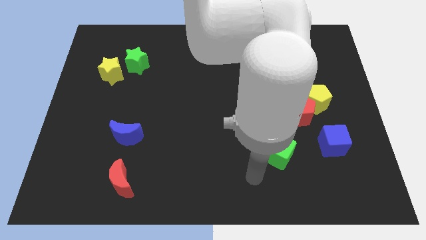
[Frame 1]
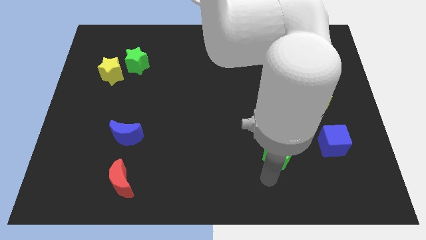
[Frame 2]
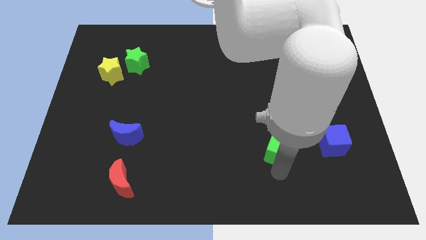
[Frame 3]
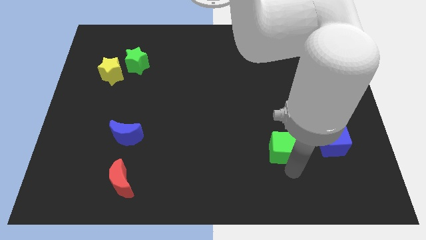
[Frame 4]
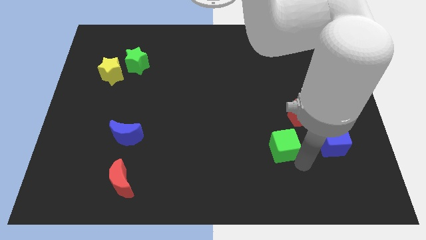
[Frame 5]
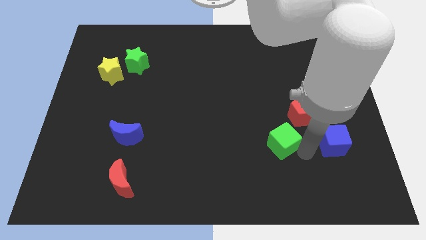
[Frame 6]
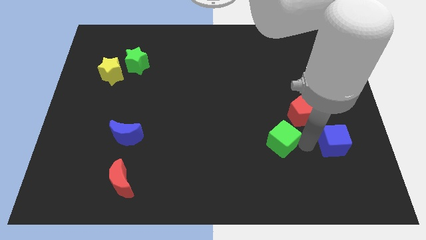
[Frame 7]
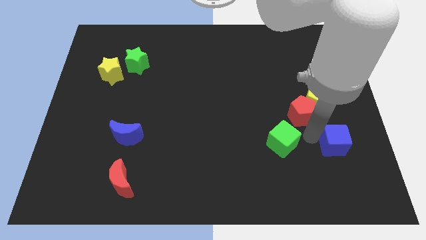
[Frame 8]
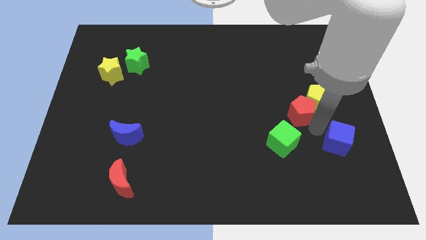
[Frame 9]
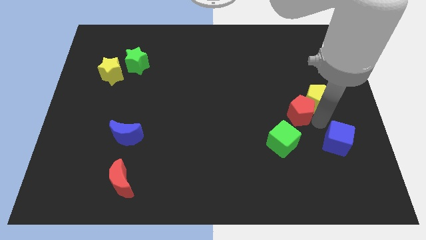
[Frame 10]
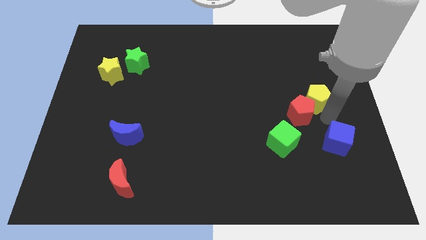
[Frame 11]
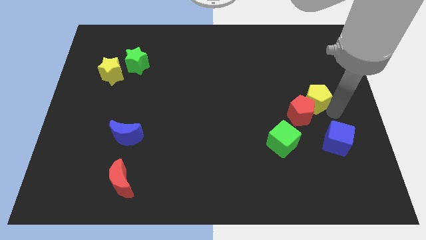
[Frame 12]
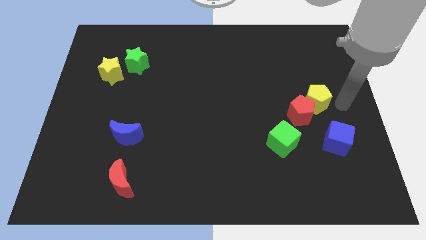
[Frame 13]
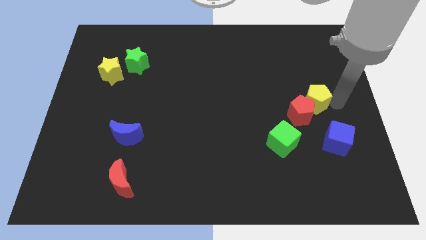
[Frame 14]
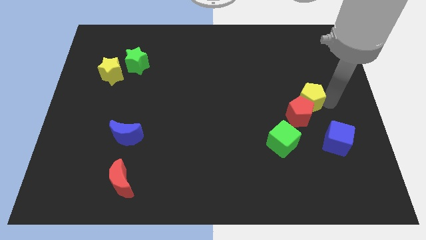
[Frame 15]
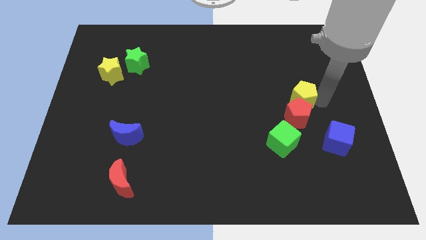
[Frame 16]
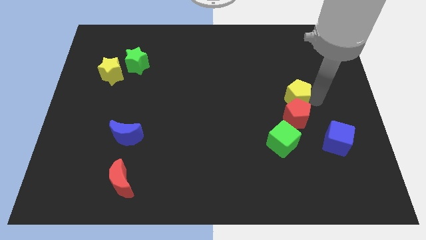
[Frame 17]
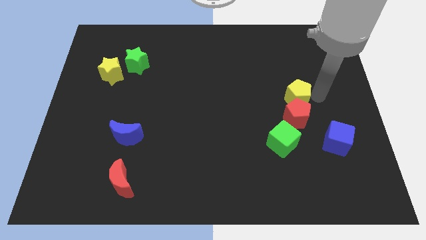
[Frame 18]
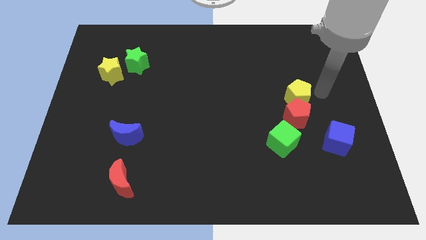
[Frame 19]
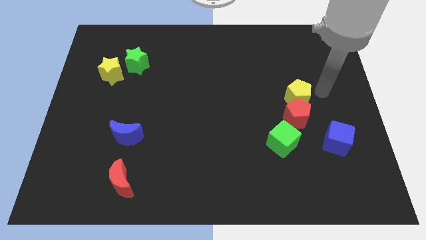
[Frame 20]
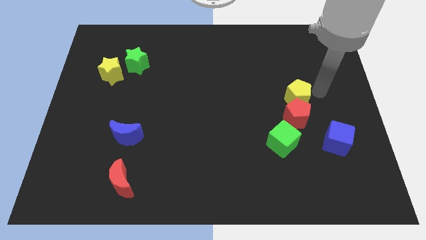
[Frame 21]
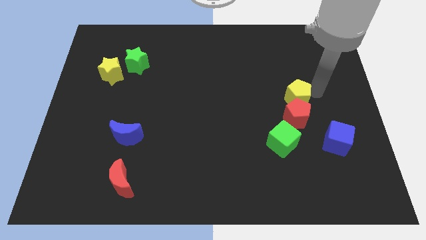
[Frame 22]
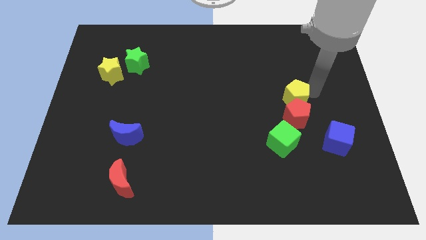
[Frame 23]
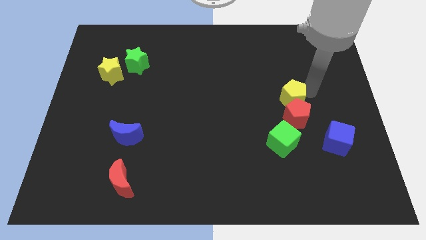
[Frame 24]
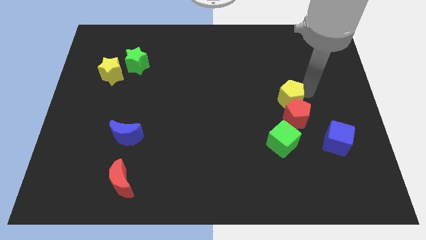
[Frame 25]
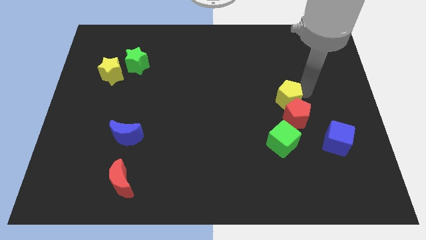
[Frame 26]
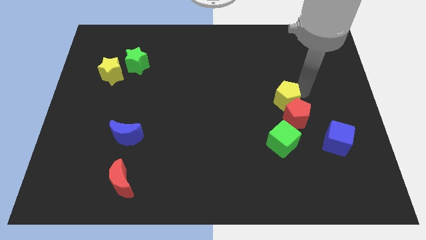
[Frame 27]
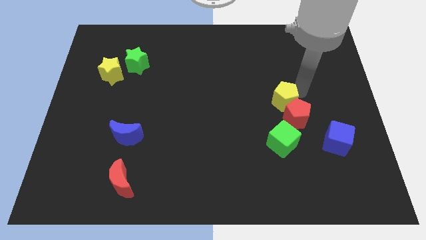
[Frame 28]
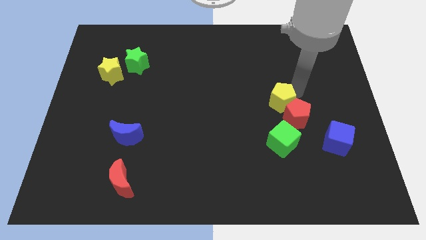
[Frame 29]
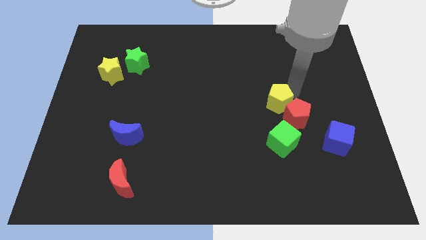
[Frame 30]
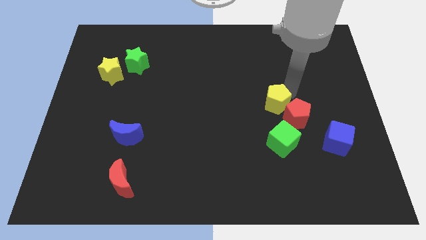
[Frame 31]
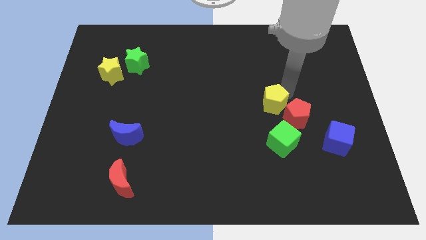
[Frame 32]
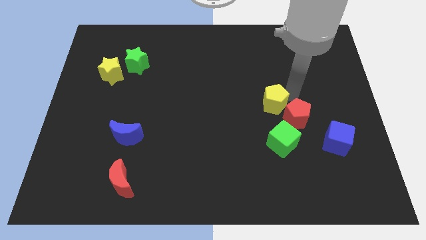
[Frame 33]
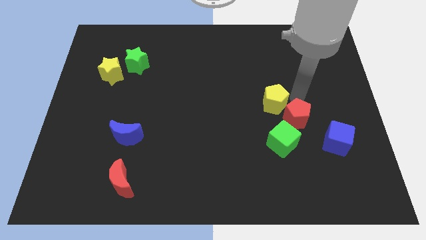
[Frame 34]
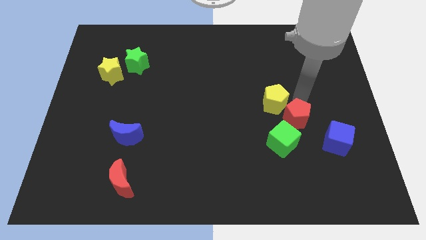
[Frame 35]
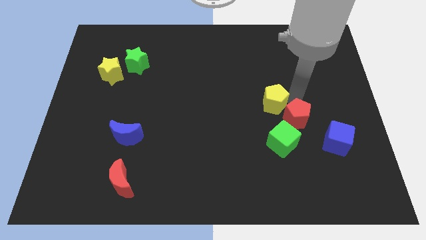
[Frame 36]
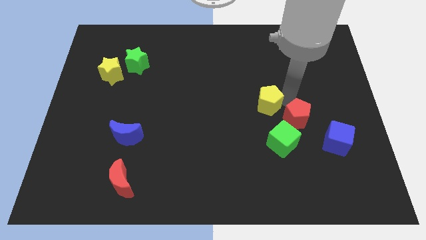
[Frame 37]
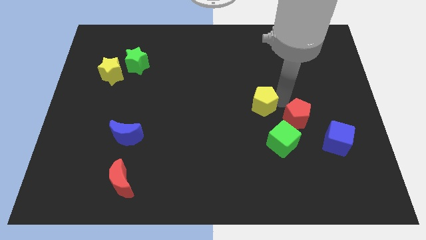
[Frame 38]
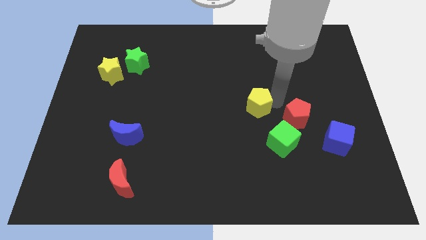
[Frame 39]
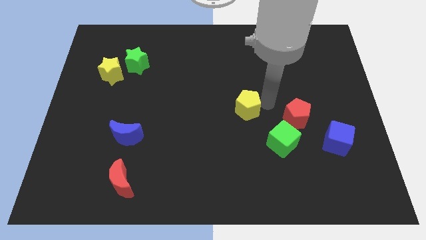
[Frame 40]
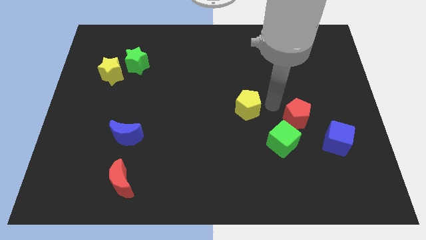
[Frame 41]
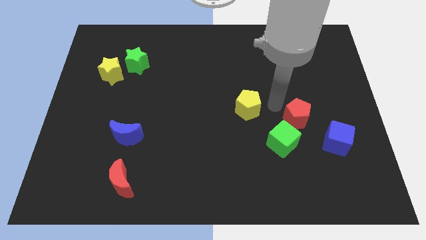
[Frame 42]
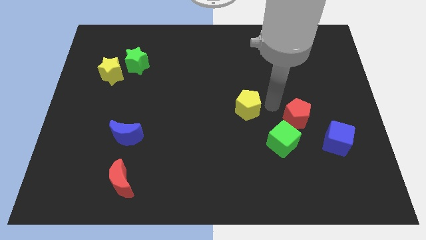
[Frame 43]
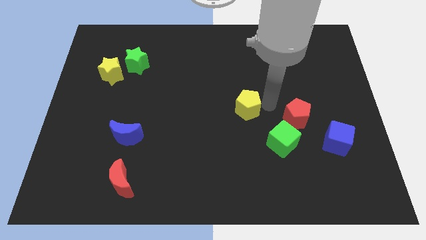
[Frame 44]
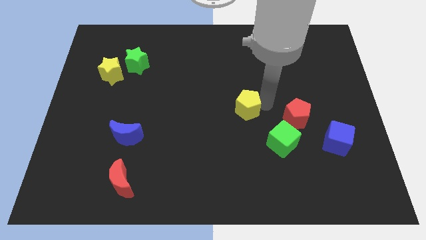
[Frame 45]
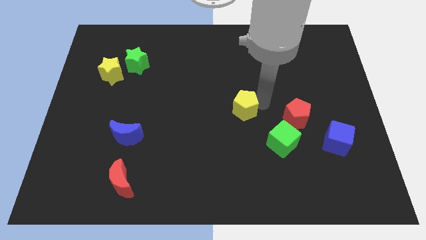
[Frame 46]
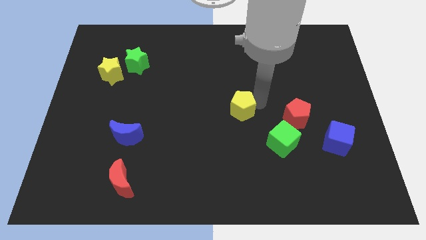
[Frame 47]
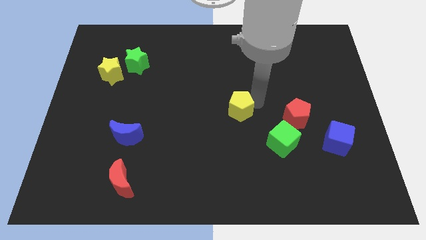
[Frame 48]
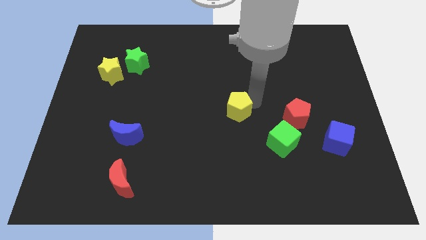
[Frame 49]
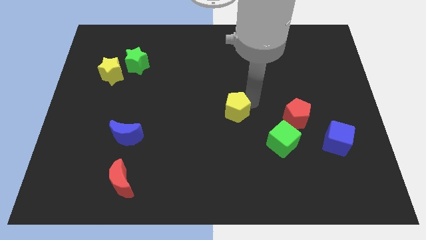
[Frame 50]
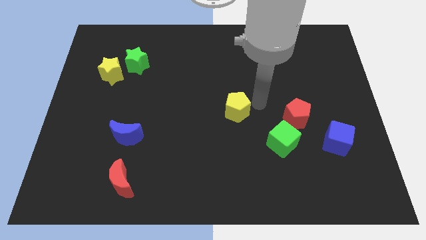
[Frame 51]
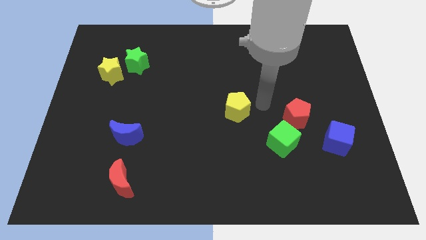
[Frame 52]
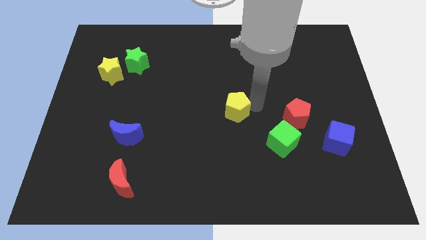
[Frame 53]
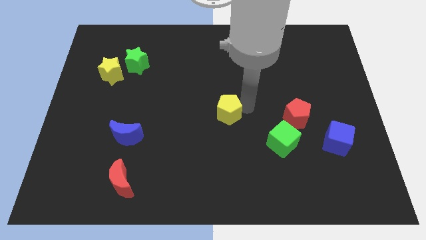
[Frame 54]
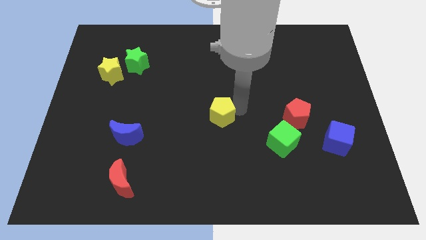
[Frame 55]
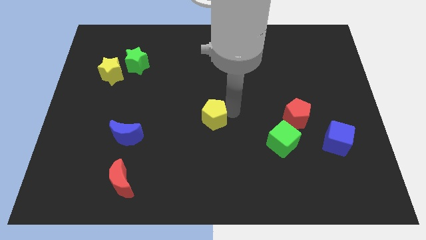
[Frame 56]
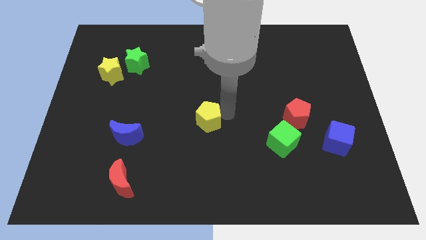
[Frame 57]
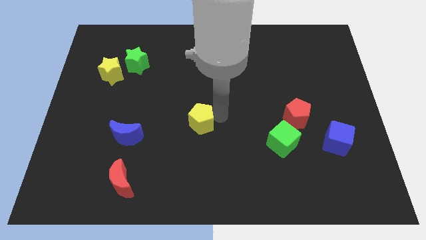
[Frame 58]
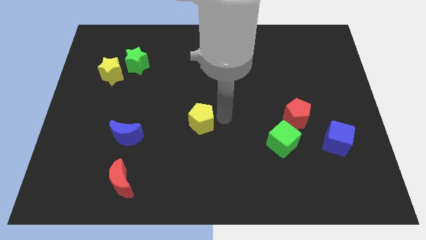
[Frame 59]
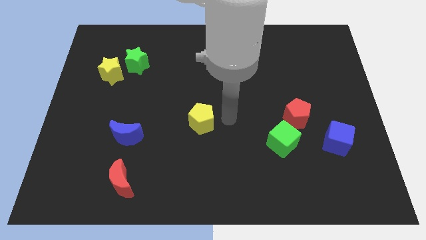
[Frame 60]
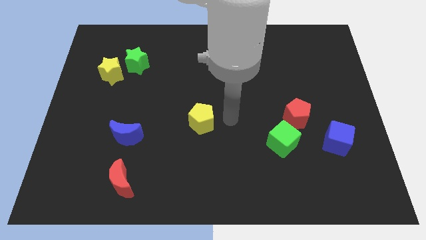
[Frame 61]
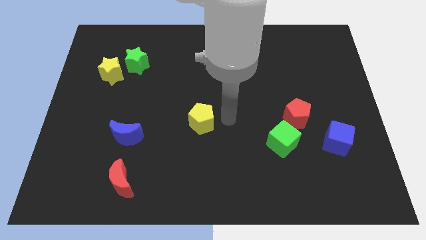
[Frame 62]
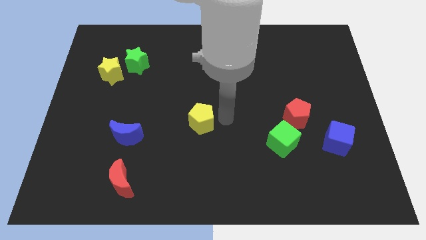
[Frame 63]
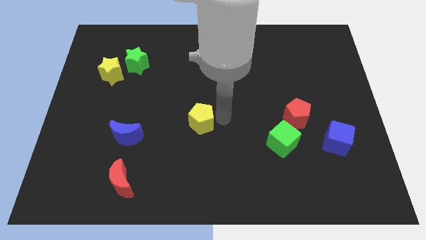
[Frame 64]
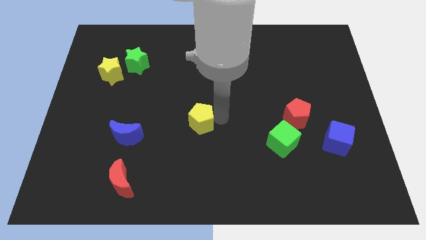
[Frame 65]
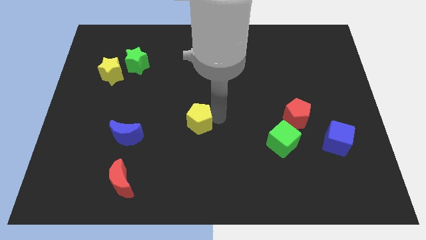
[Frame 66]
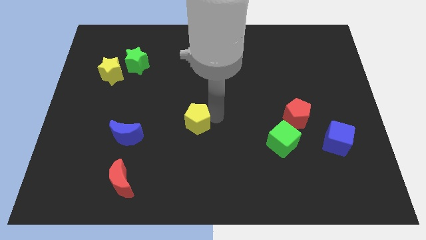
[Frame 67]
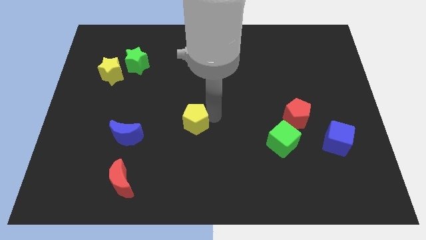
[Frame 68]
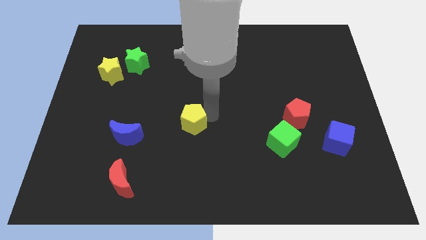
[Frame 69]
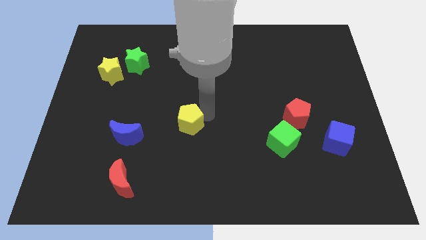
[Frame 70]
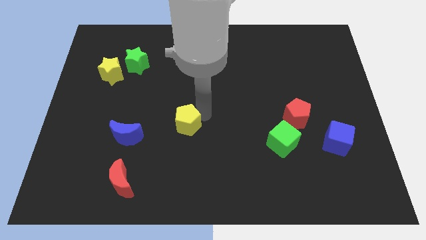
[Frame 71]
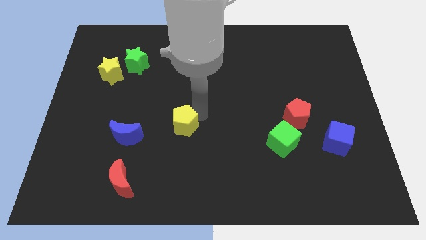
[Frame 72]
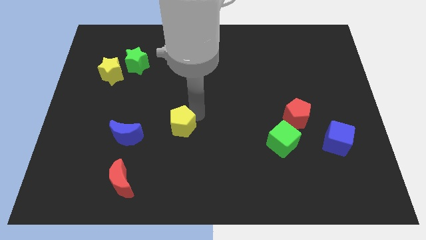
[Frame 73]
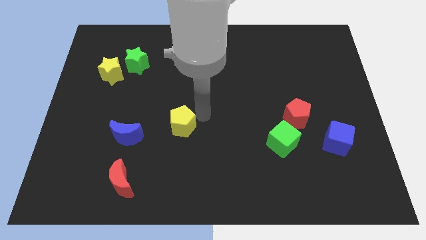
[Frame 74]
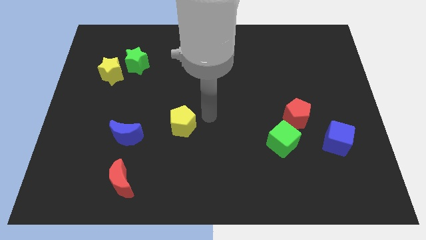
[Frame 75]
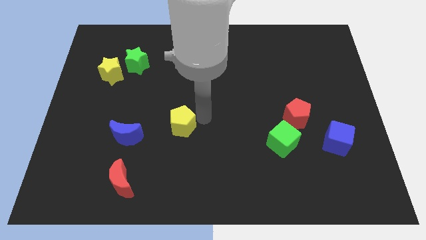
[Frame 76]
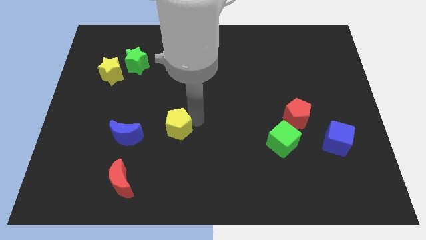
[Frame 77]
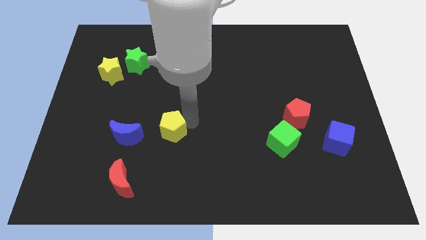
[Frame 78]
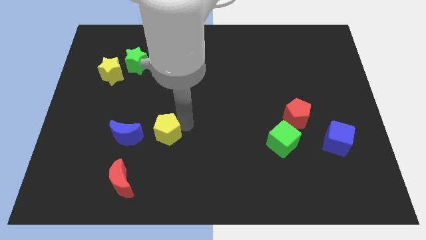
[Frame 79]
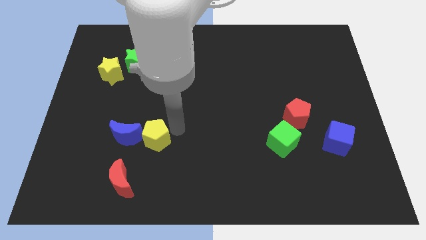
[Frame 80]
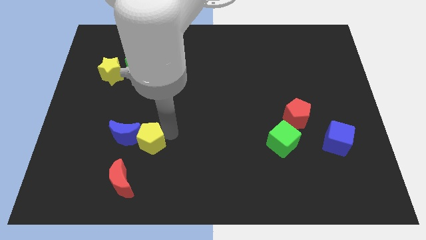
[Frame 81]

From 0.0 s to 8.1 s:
slide the yellow pentagon close to the blue moon
